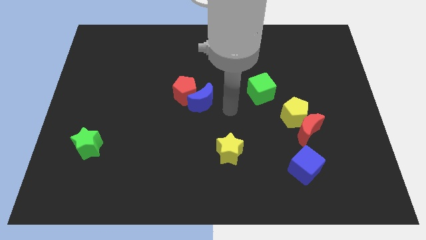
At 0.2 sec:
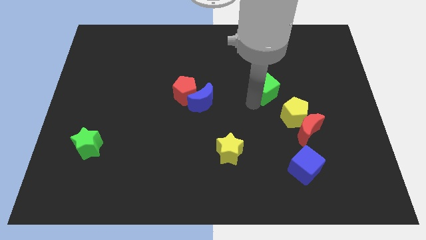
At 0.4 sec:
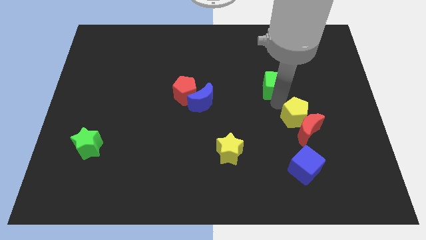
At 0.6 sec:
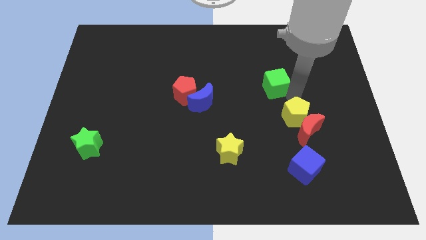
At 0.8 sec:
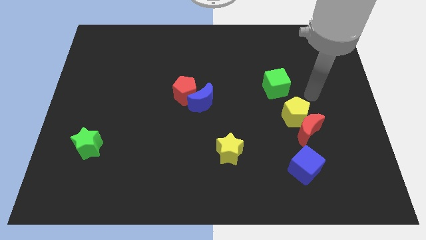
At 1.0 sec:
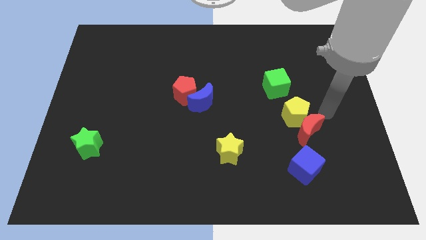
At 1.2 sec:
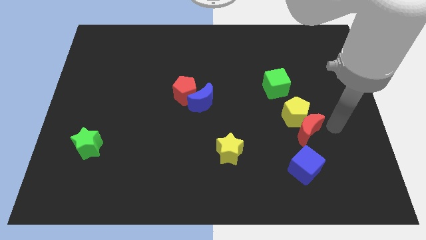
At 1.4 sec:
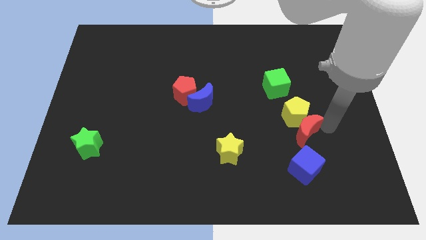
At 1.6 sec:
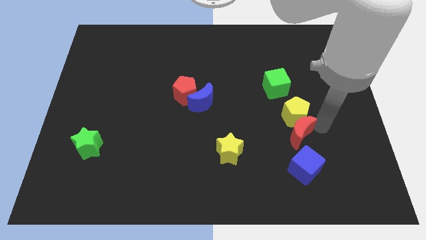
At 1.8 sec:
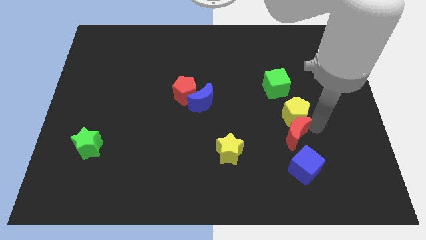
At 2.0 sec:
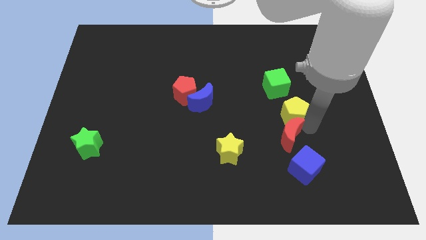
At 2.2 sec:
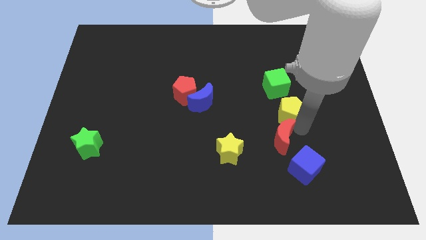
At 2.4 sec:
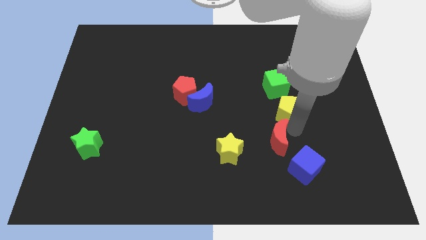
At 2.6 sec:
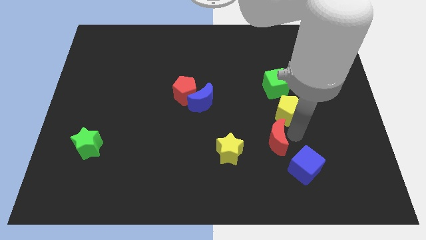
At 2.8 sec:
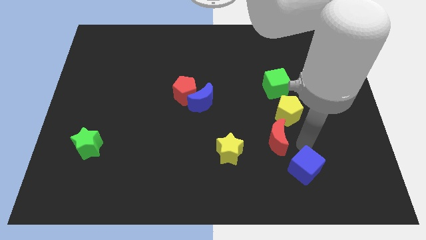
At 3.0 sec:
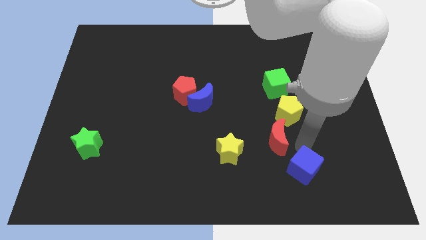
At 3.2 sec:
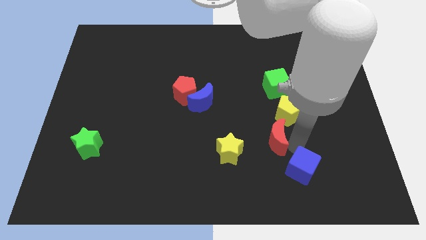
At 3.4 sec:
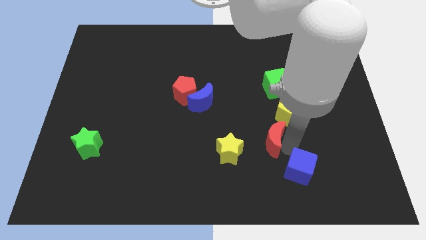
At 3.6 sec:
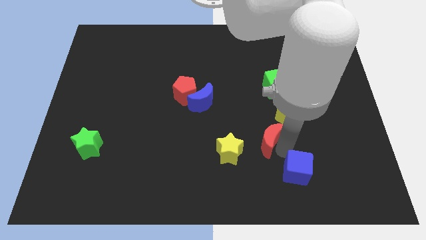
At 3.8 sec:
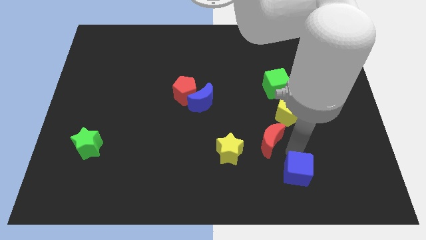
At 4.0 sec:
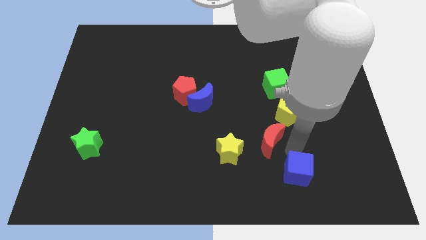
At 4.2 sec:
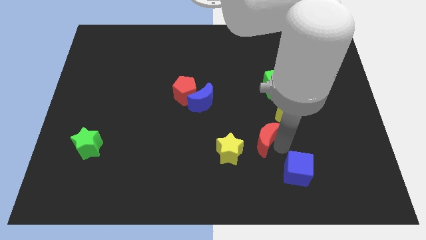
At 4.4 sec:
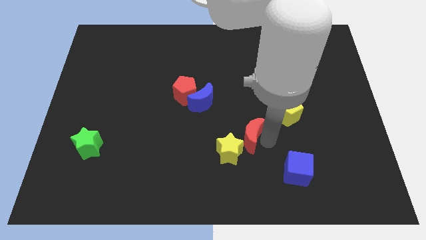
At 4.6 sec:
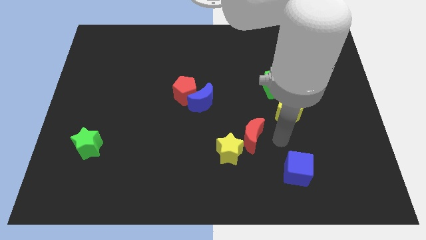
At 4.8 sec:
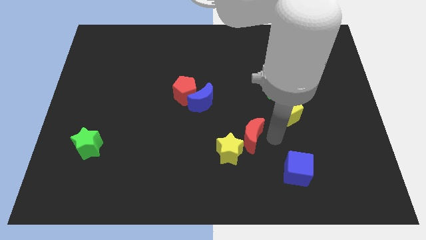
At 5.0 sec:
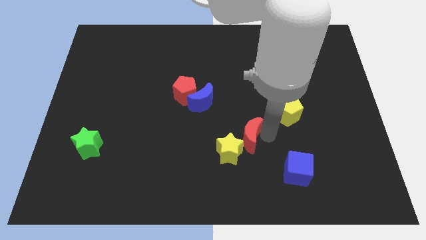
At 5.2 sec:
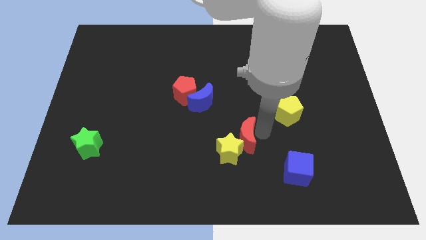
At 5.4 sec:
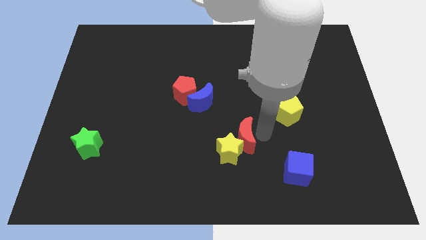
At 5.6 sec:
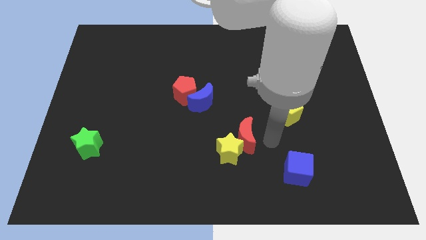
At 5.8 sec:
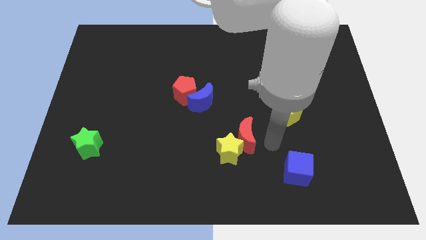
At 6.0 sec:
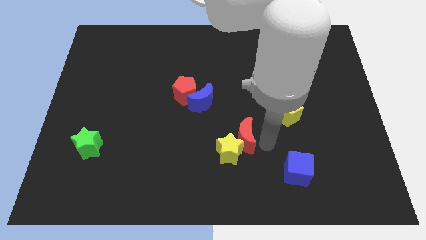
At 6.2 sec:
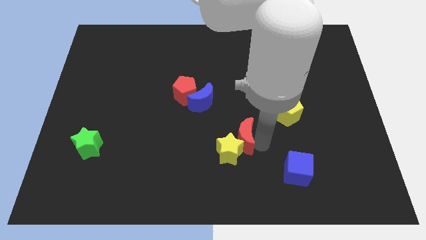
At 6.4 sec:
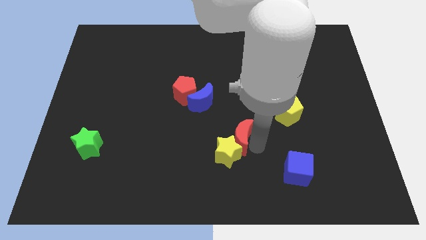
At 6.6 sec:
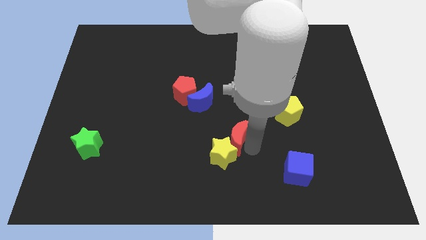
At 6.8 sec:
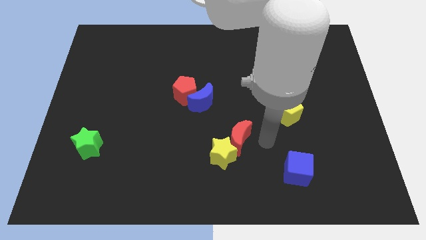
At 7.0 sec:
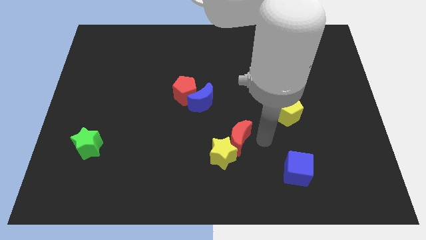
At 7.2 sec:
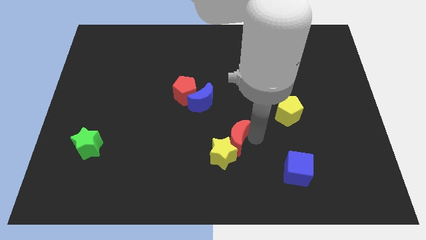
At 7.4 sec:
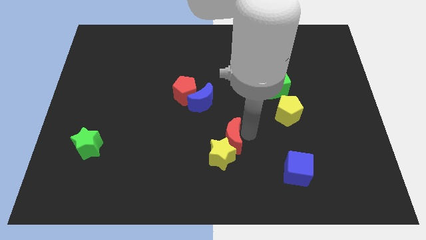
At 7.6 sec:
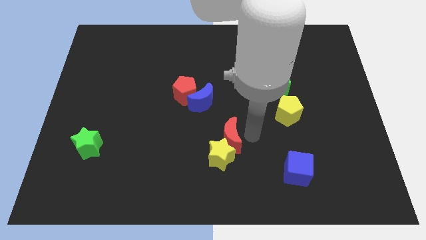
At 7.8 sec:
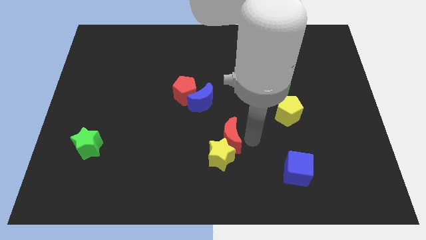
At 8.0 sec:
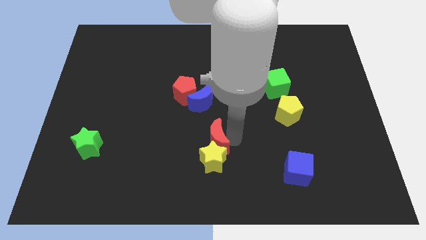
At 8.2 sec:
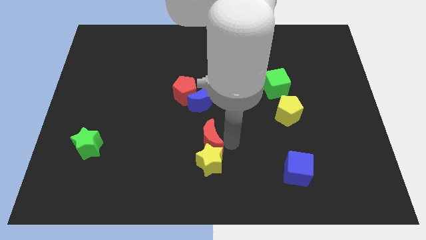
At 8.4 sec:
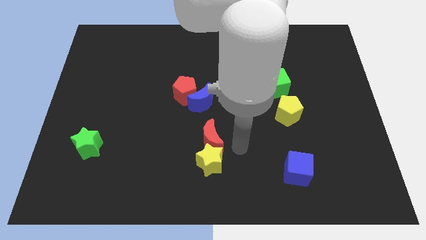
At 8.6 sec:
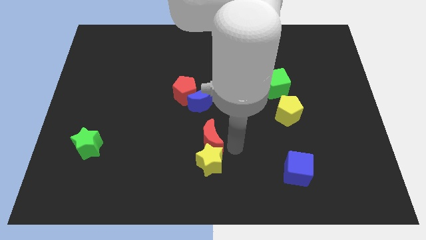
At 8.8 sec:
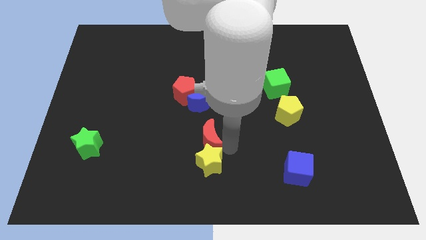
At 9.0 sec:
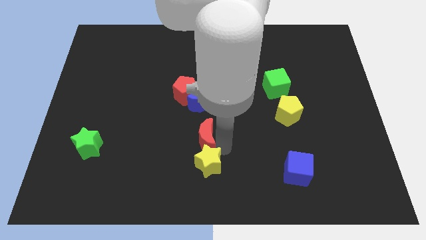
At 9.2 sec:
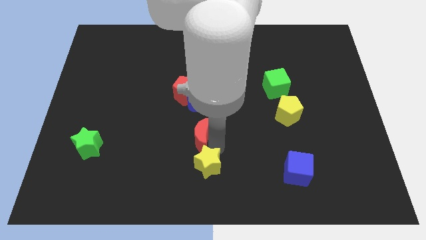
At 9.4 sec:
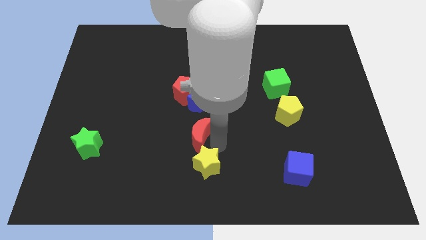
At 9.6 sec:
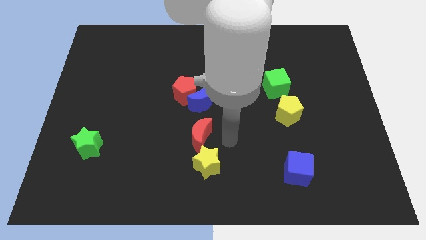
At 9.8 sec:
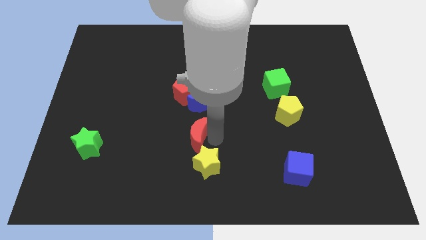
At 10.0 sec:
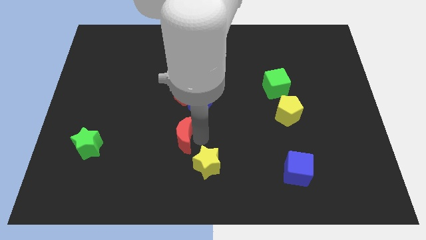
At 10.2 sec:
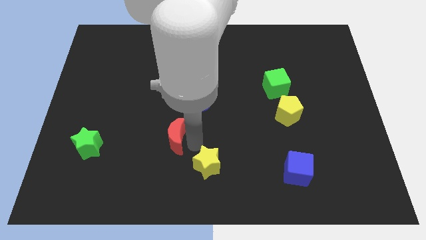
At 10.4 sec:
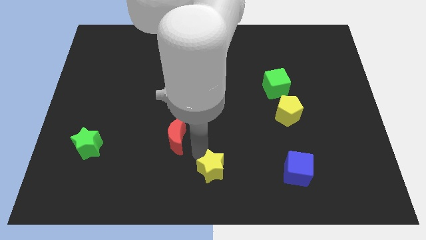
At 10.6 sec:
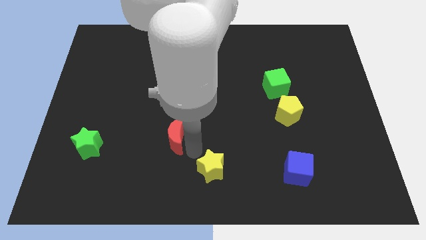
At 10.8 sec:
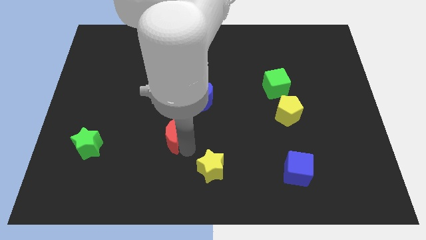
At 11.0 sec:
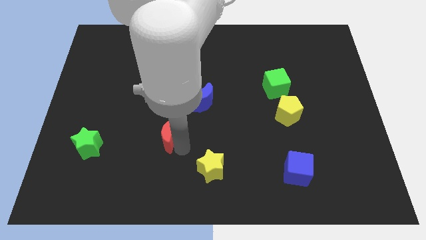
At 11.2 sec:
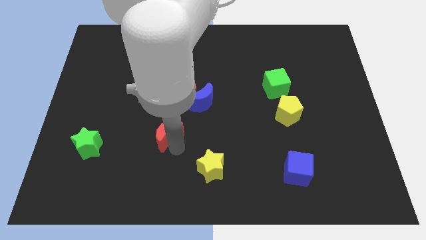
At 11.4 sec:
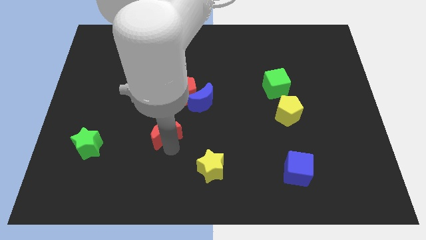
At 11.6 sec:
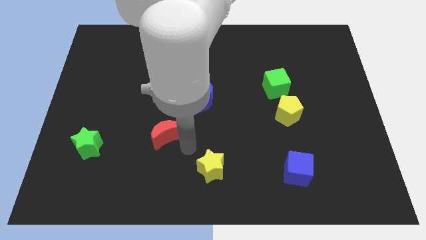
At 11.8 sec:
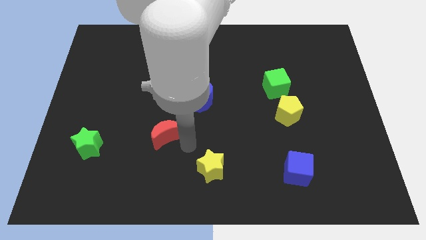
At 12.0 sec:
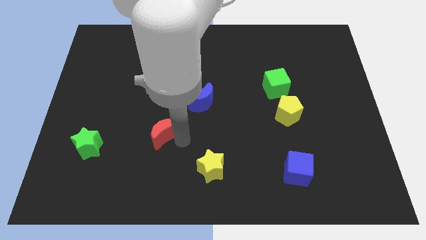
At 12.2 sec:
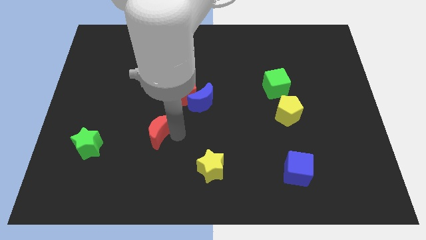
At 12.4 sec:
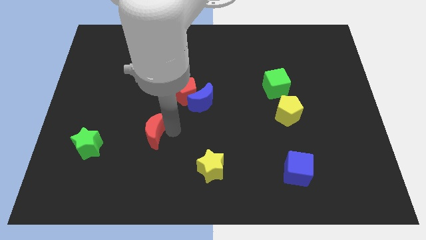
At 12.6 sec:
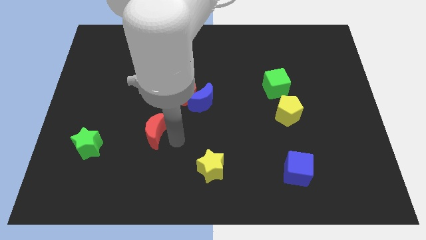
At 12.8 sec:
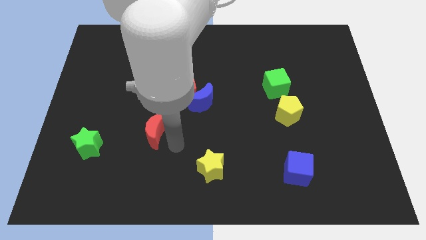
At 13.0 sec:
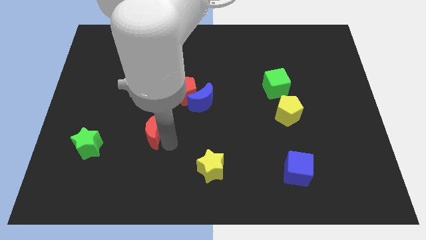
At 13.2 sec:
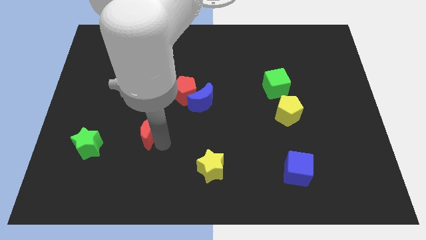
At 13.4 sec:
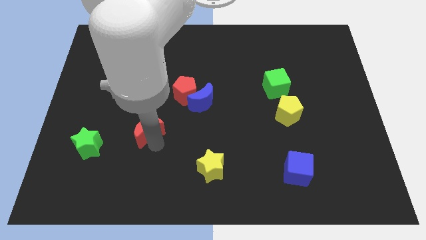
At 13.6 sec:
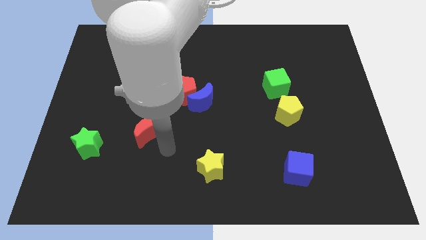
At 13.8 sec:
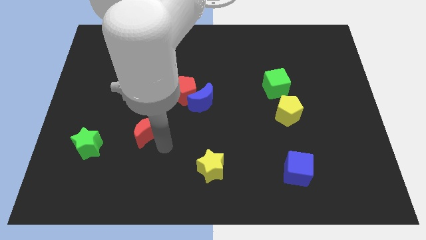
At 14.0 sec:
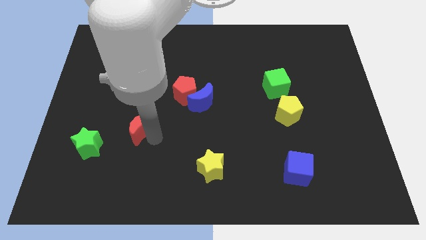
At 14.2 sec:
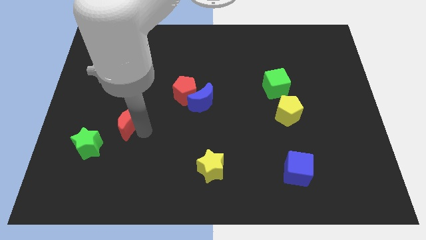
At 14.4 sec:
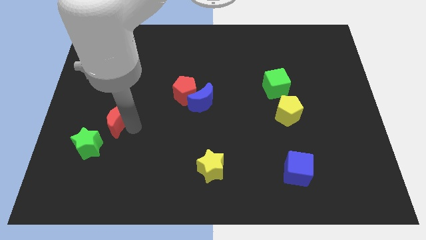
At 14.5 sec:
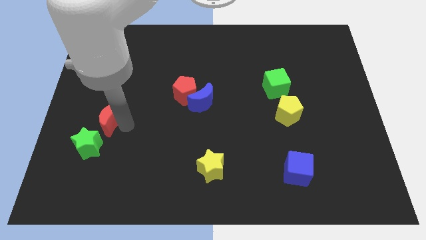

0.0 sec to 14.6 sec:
put the red moon above the green star

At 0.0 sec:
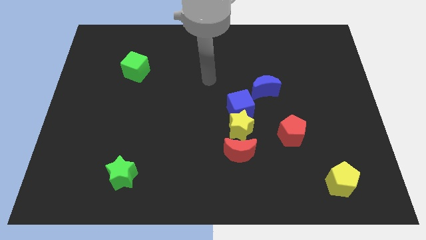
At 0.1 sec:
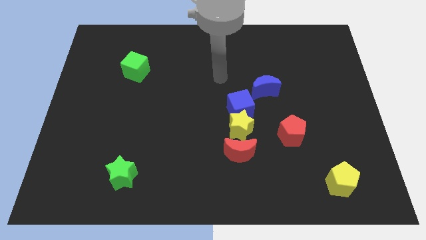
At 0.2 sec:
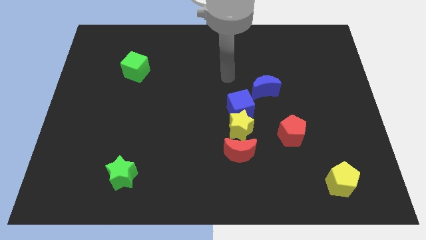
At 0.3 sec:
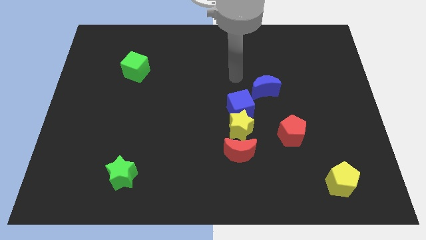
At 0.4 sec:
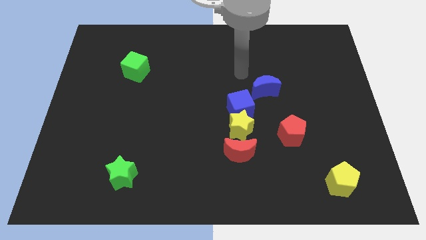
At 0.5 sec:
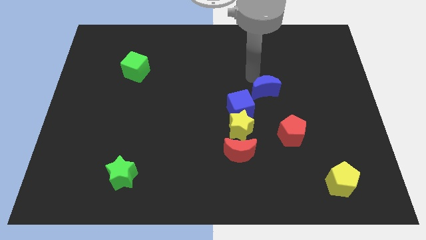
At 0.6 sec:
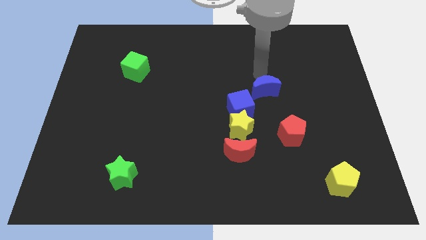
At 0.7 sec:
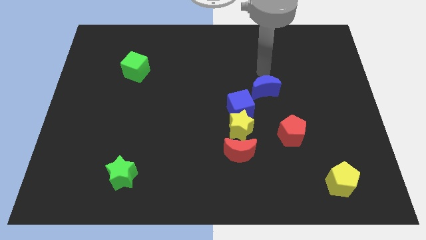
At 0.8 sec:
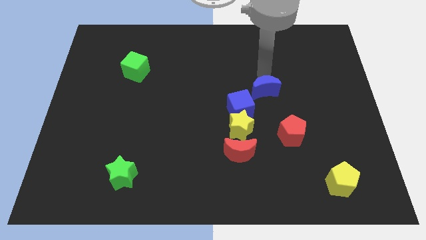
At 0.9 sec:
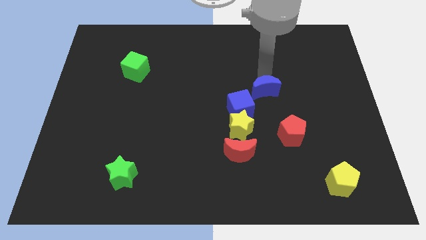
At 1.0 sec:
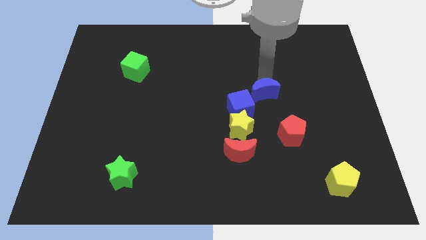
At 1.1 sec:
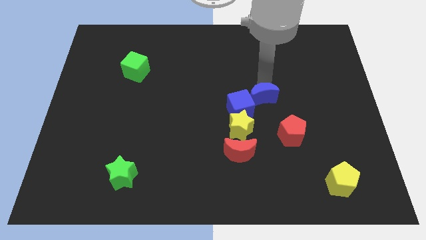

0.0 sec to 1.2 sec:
put the blue moon diagonally up and to the left of the red pentagon
